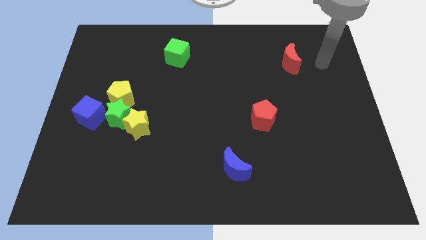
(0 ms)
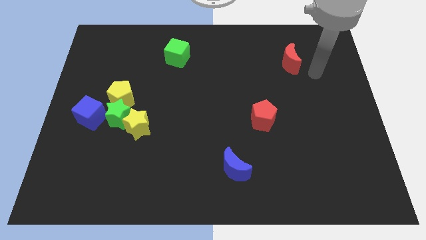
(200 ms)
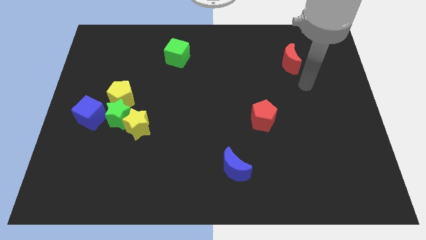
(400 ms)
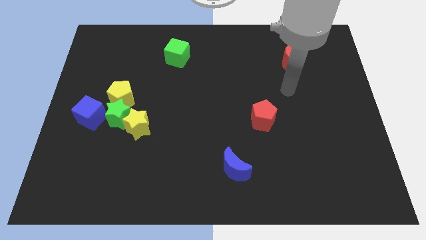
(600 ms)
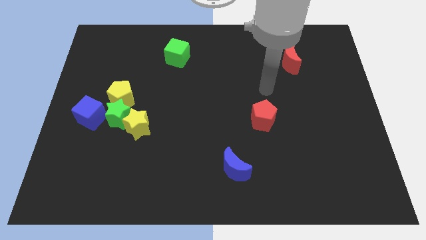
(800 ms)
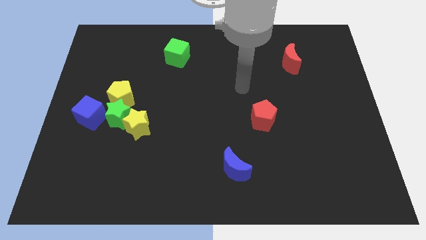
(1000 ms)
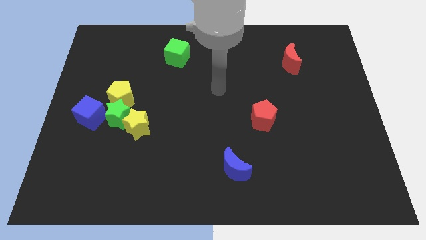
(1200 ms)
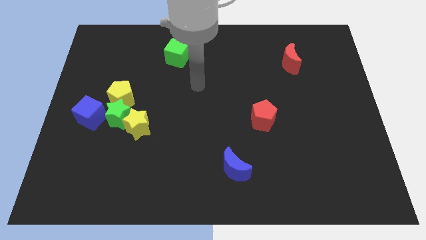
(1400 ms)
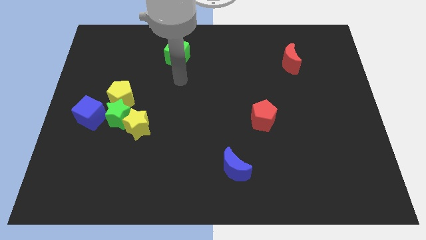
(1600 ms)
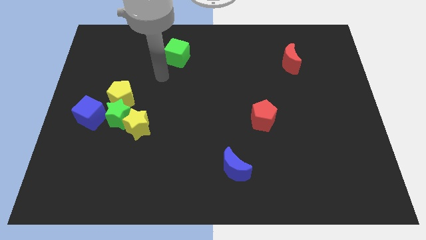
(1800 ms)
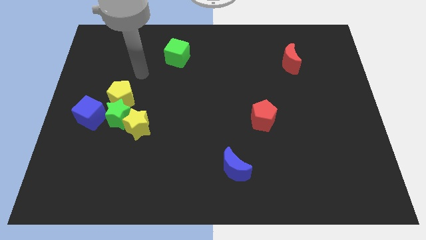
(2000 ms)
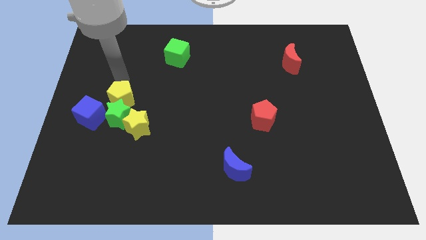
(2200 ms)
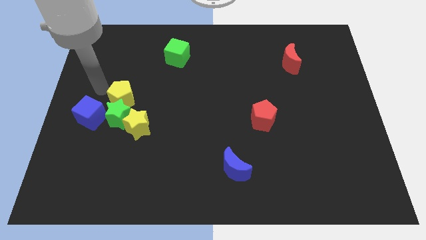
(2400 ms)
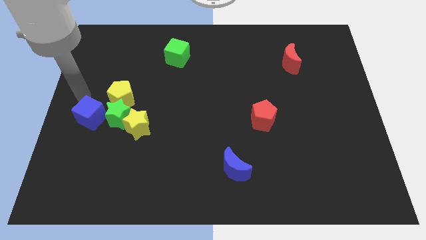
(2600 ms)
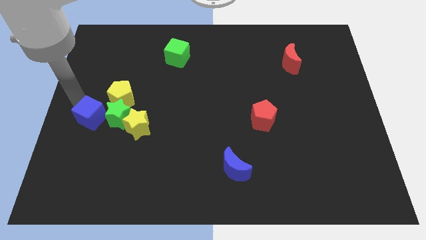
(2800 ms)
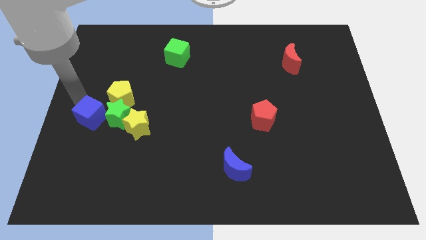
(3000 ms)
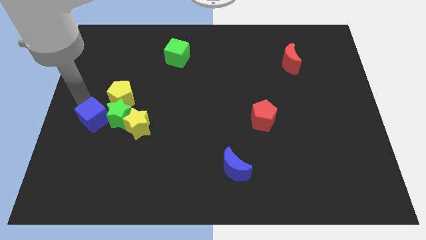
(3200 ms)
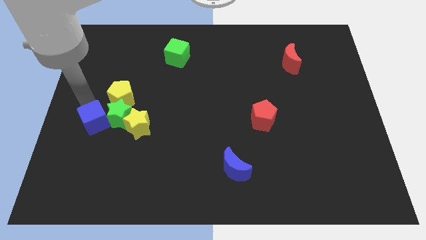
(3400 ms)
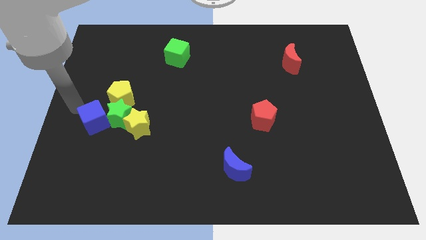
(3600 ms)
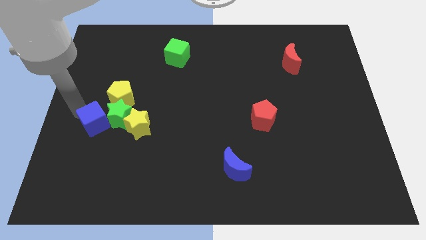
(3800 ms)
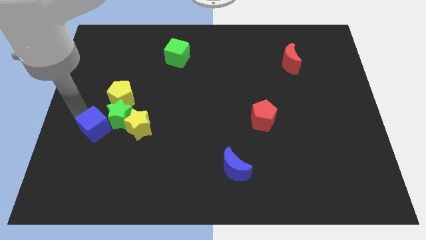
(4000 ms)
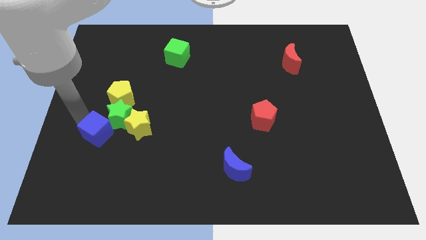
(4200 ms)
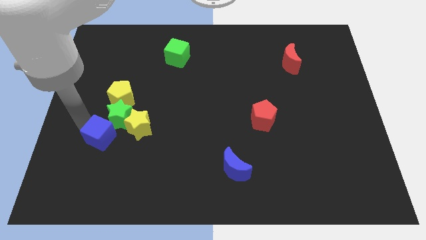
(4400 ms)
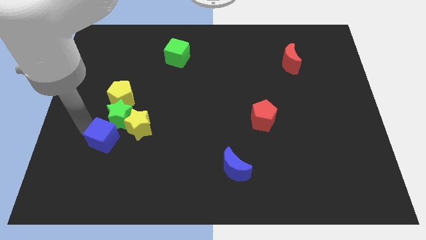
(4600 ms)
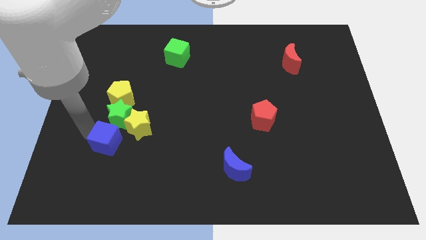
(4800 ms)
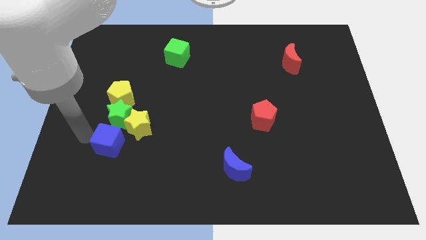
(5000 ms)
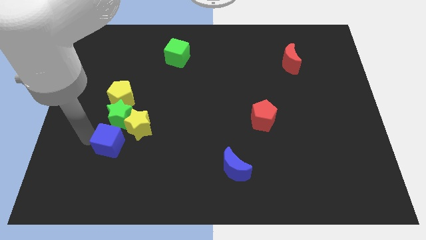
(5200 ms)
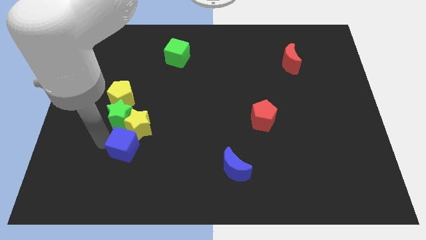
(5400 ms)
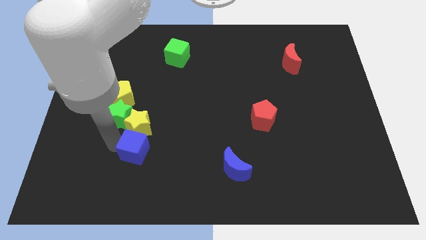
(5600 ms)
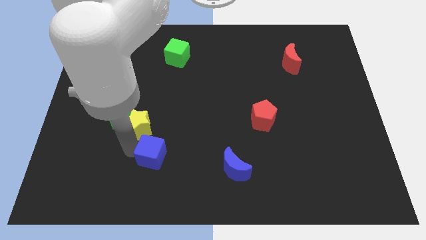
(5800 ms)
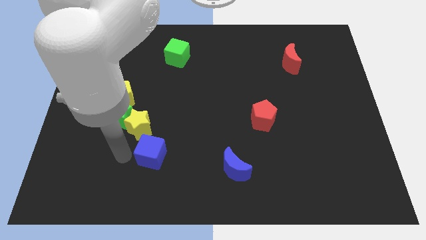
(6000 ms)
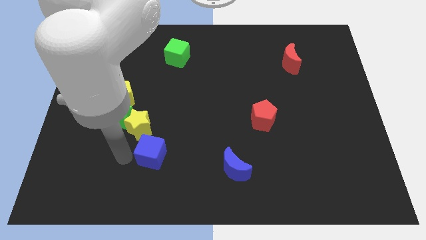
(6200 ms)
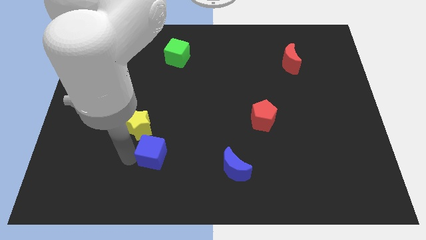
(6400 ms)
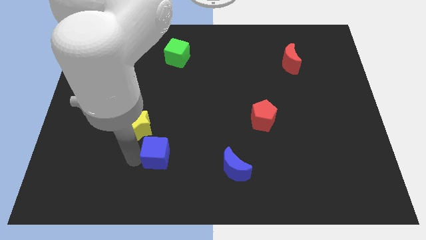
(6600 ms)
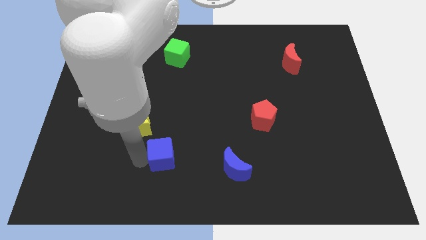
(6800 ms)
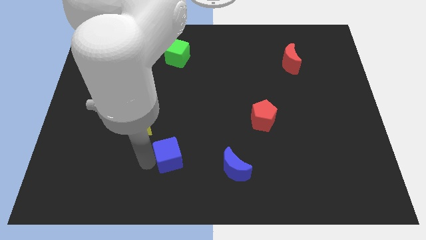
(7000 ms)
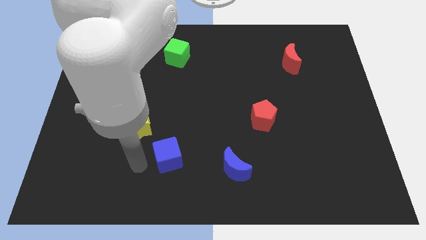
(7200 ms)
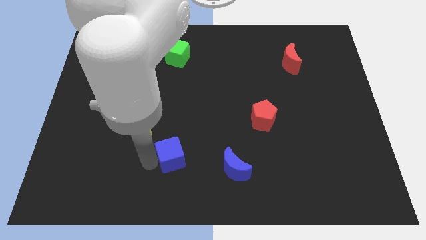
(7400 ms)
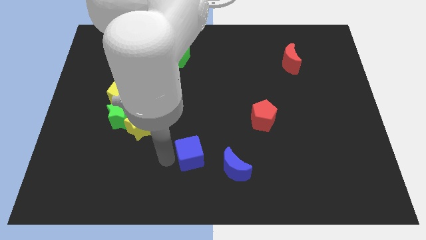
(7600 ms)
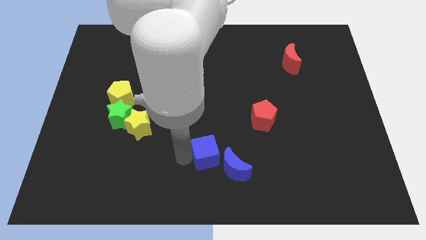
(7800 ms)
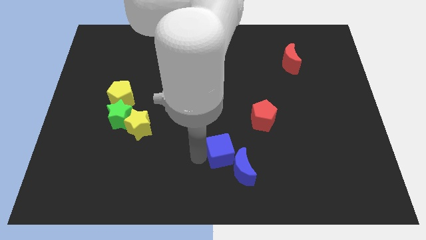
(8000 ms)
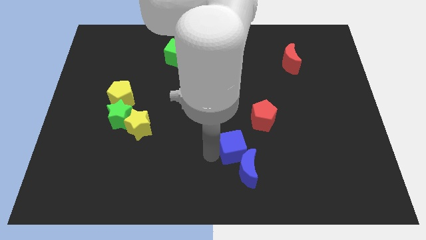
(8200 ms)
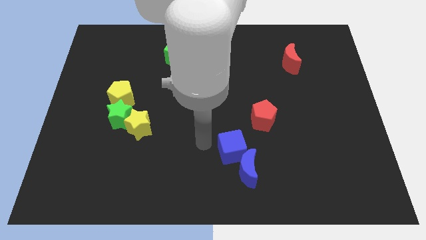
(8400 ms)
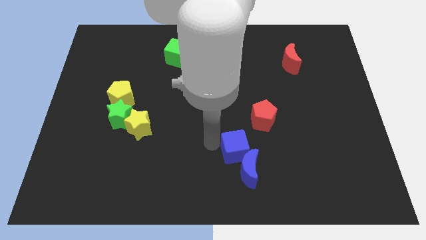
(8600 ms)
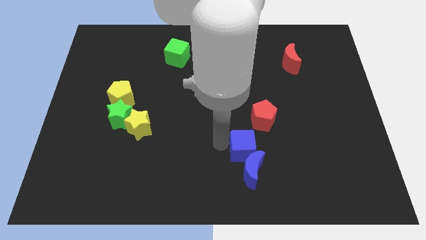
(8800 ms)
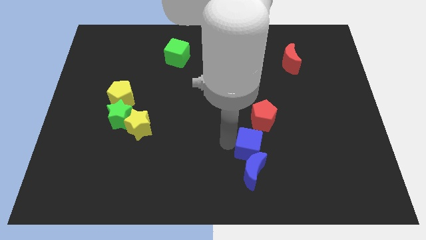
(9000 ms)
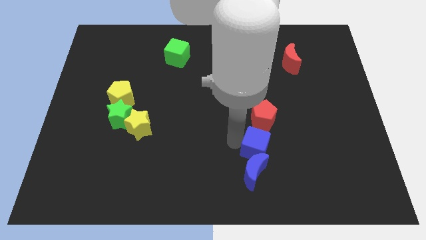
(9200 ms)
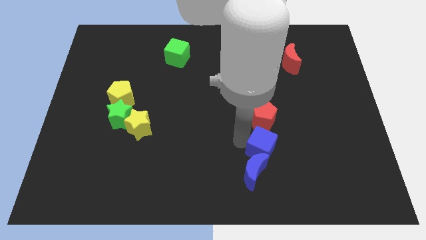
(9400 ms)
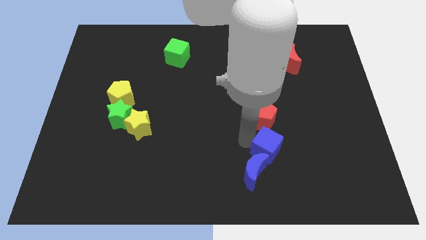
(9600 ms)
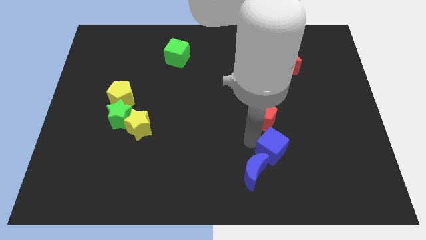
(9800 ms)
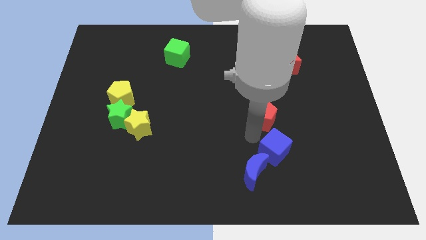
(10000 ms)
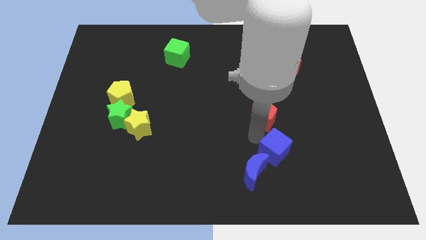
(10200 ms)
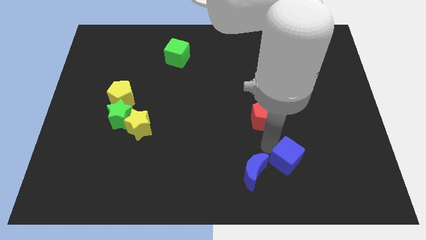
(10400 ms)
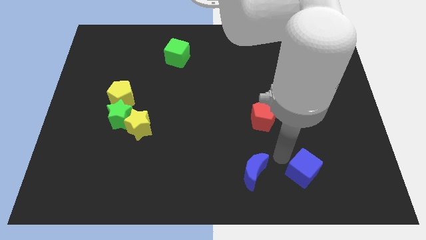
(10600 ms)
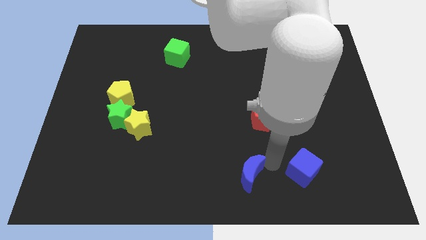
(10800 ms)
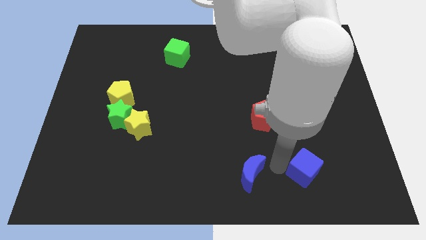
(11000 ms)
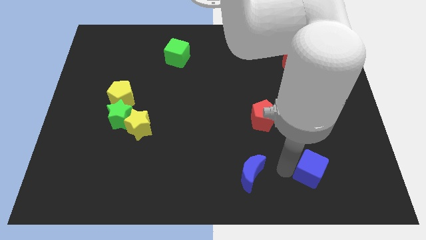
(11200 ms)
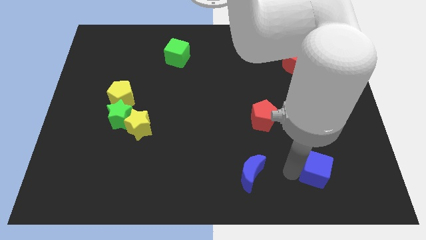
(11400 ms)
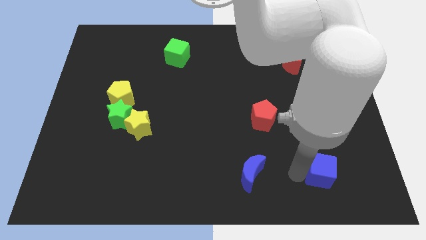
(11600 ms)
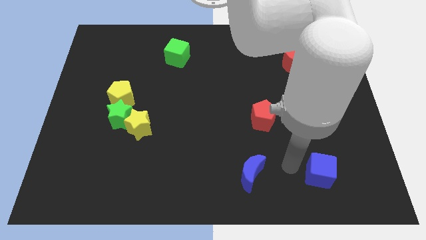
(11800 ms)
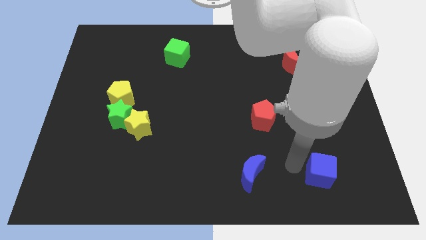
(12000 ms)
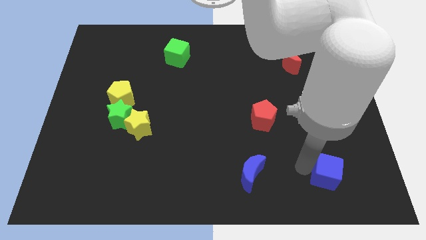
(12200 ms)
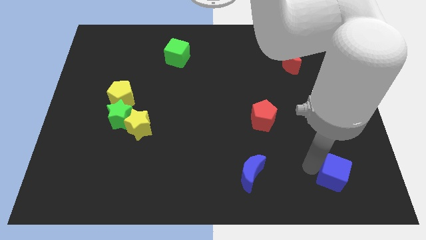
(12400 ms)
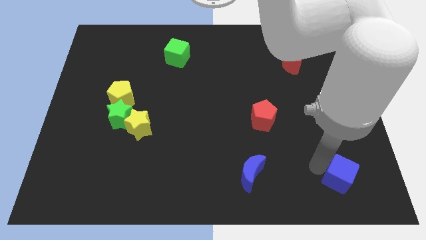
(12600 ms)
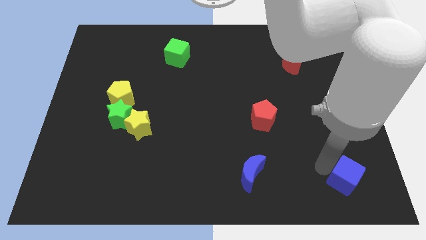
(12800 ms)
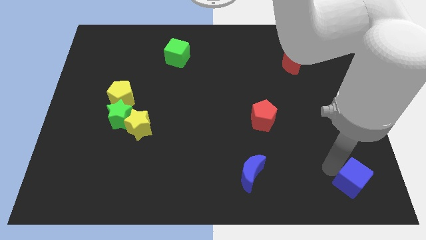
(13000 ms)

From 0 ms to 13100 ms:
put the blue cube to the bottom right corner
